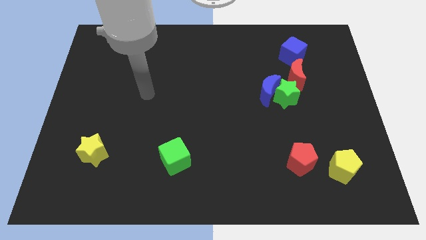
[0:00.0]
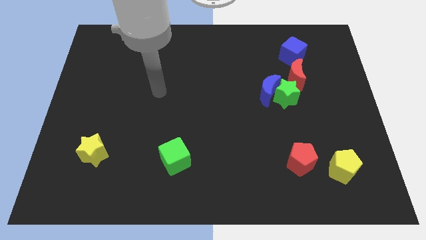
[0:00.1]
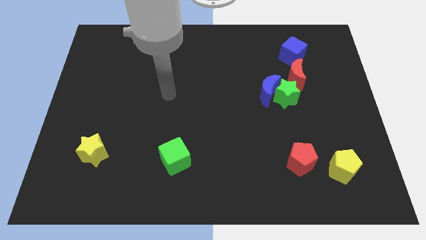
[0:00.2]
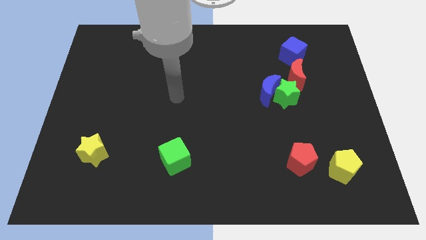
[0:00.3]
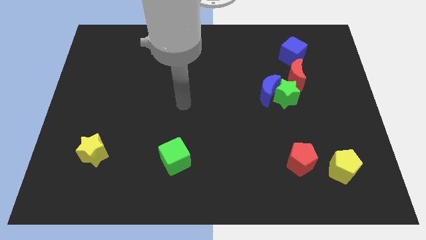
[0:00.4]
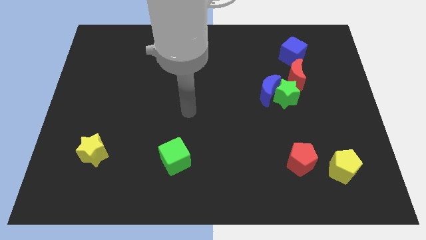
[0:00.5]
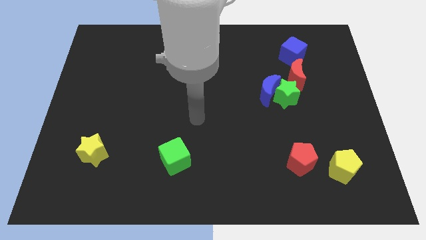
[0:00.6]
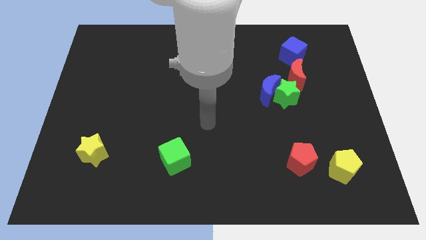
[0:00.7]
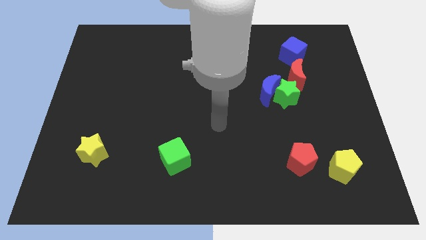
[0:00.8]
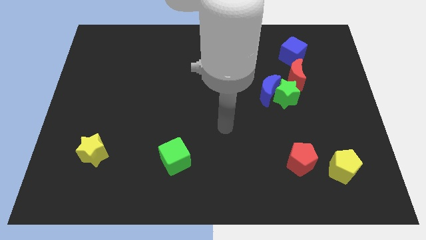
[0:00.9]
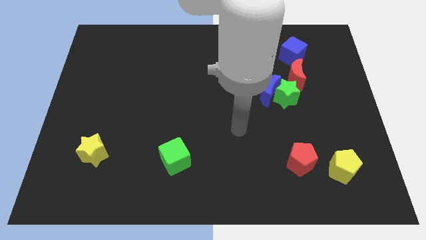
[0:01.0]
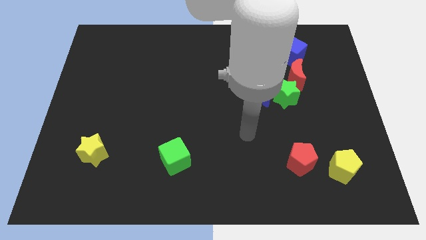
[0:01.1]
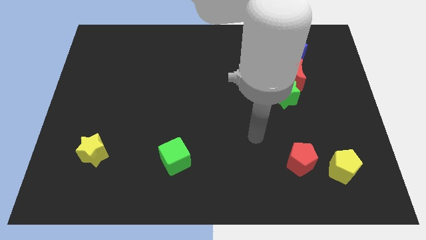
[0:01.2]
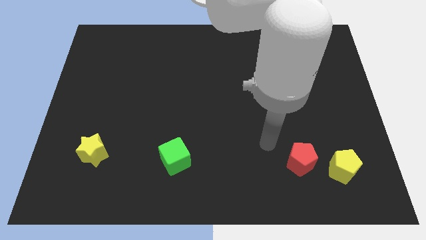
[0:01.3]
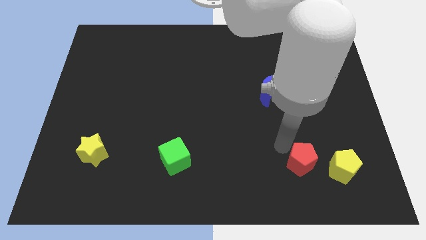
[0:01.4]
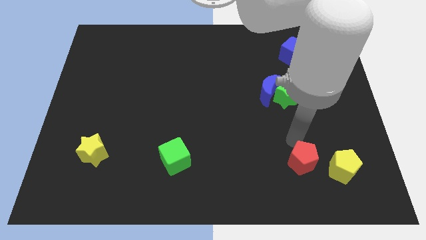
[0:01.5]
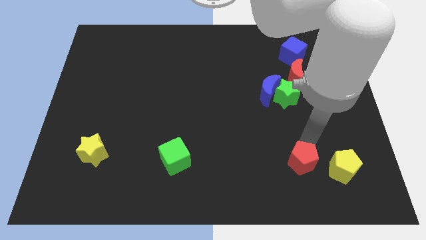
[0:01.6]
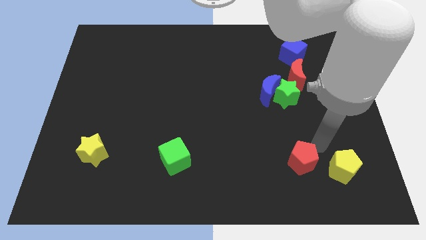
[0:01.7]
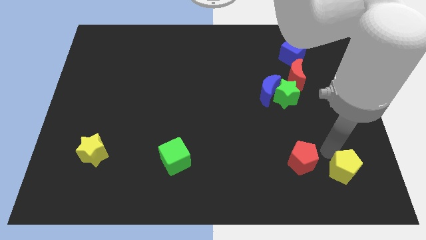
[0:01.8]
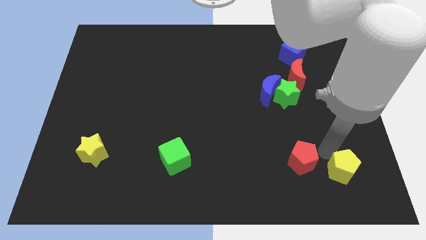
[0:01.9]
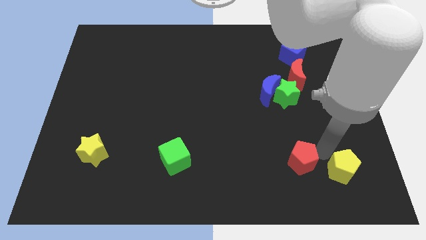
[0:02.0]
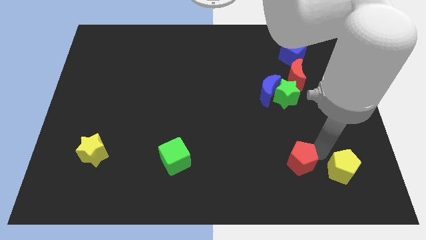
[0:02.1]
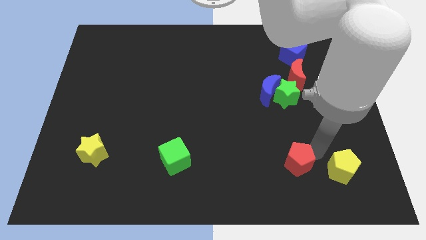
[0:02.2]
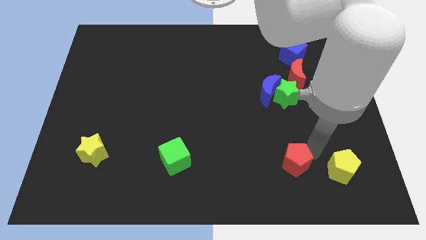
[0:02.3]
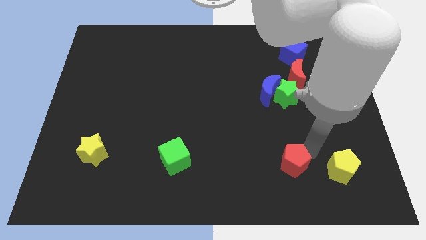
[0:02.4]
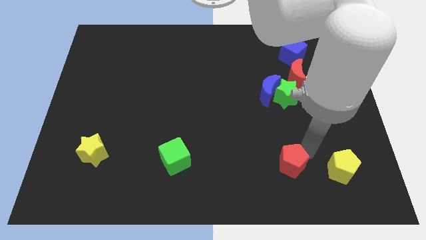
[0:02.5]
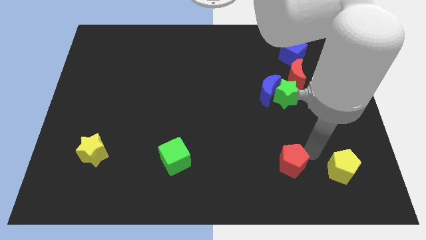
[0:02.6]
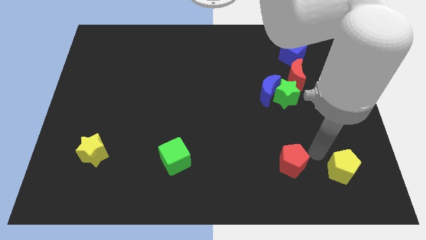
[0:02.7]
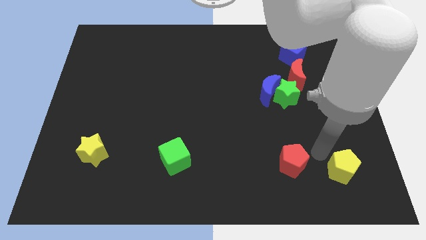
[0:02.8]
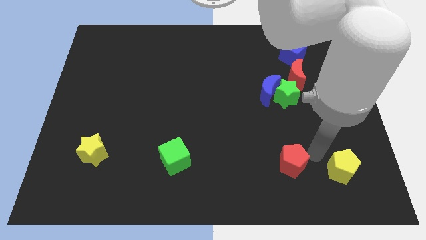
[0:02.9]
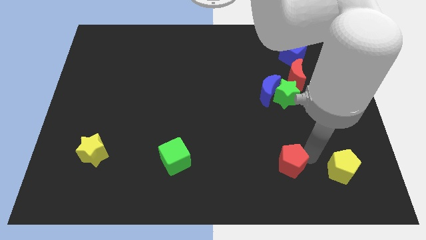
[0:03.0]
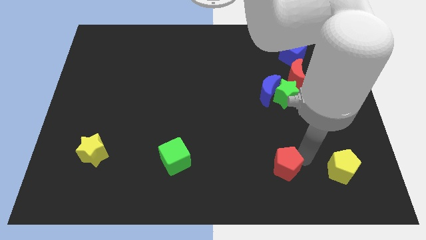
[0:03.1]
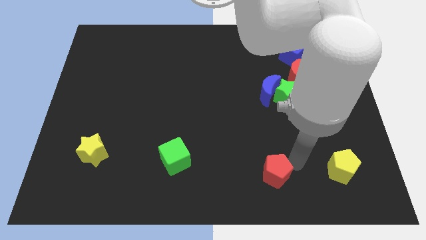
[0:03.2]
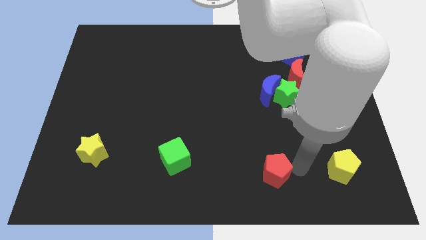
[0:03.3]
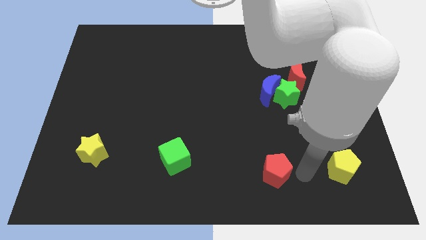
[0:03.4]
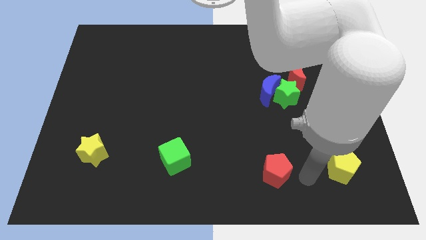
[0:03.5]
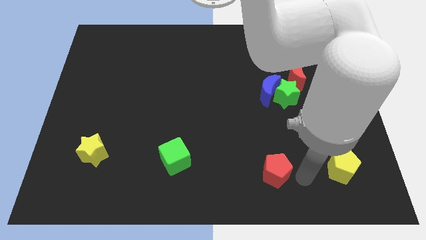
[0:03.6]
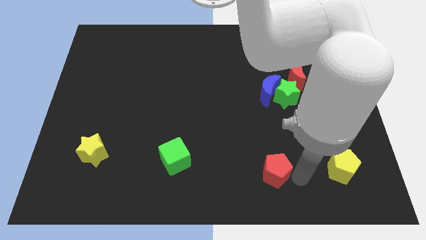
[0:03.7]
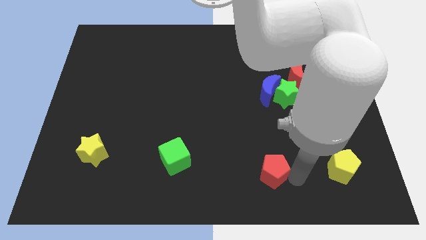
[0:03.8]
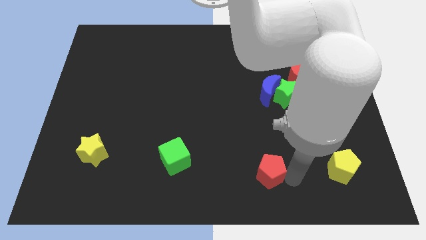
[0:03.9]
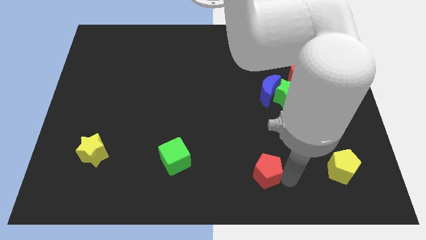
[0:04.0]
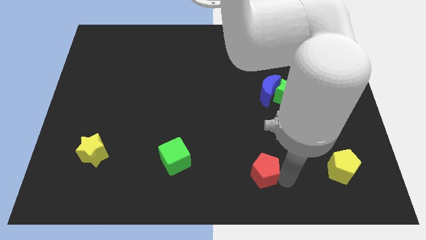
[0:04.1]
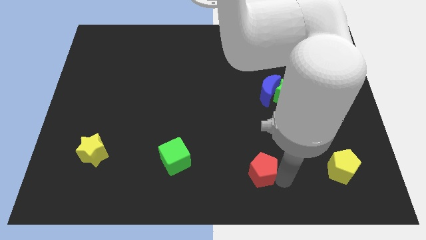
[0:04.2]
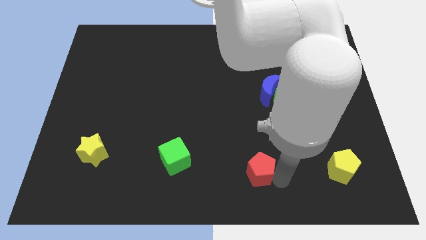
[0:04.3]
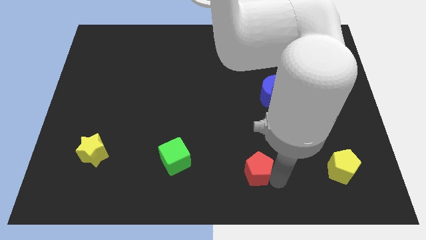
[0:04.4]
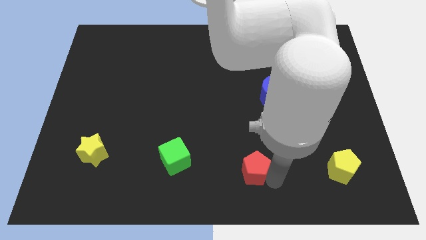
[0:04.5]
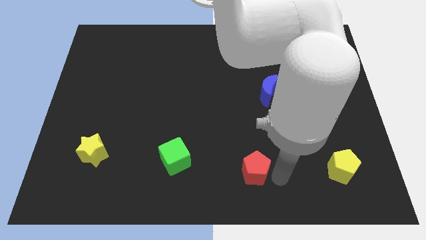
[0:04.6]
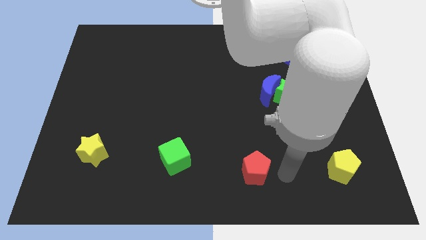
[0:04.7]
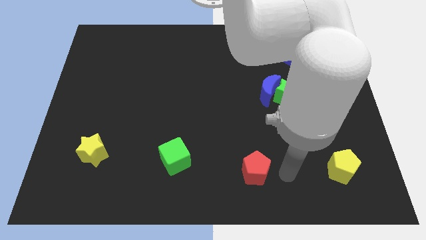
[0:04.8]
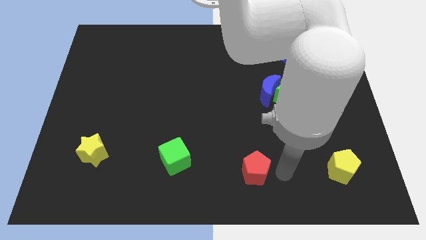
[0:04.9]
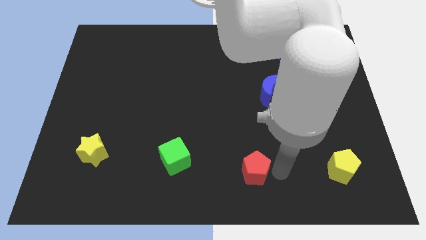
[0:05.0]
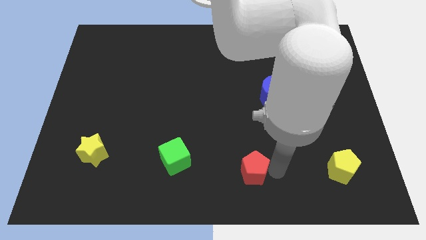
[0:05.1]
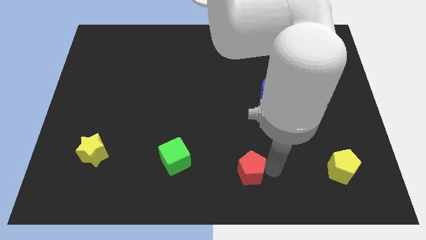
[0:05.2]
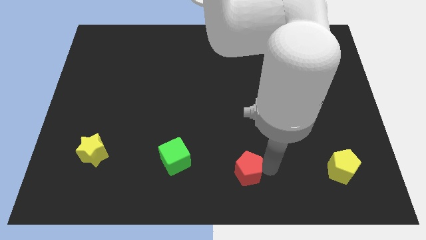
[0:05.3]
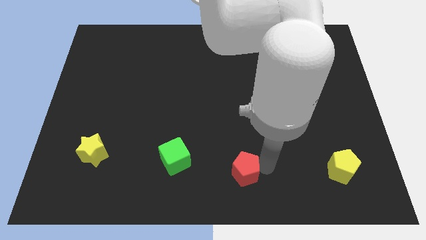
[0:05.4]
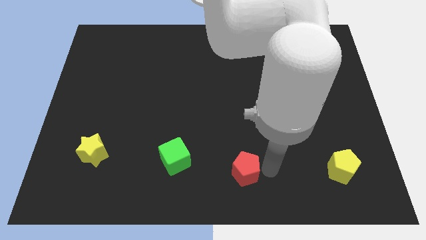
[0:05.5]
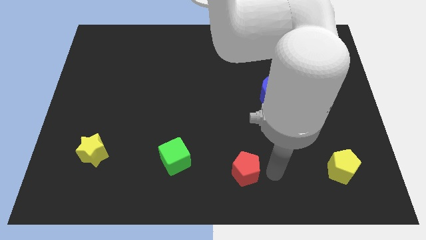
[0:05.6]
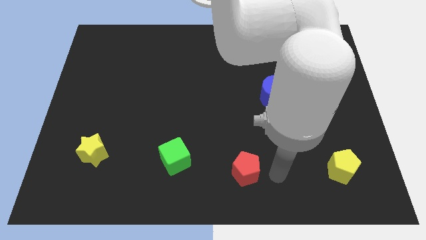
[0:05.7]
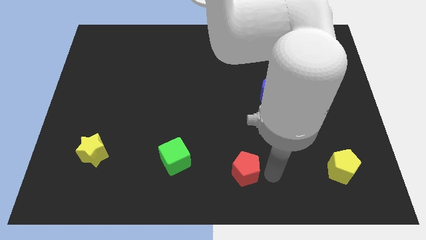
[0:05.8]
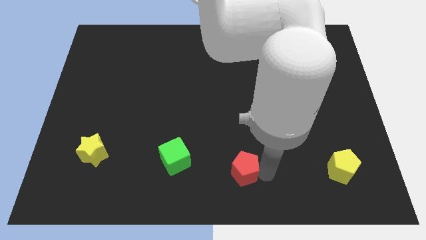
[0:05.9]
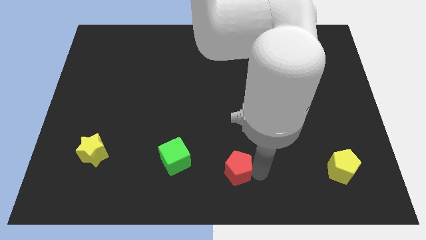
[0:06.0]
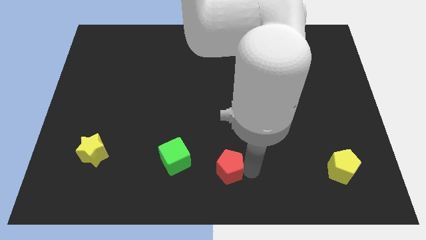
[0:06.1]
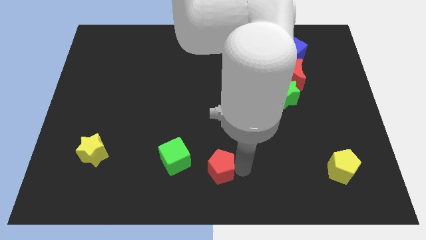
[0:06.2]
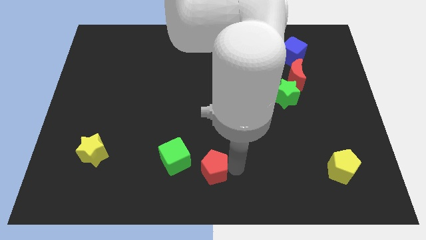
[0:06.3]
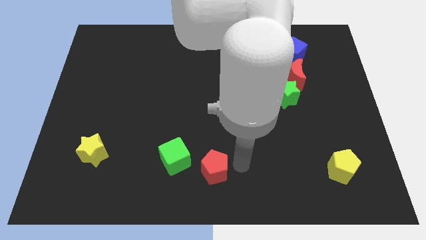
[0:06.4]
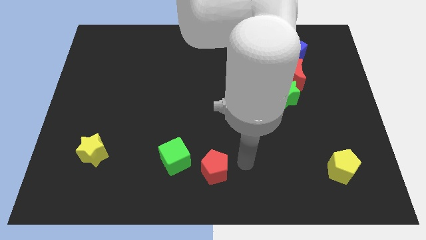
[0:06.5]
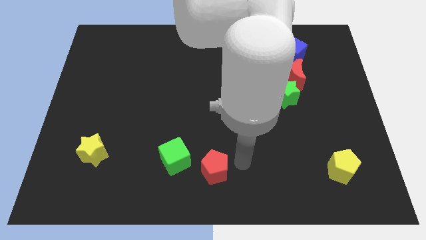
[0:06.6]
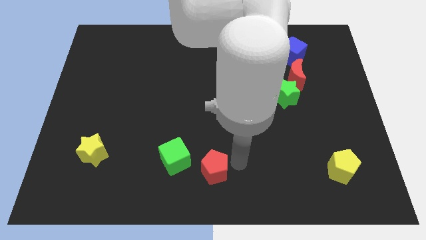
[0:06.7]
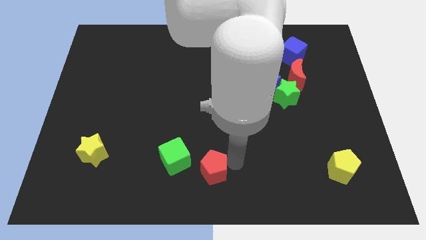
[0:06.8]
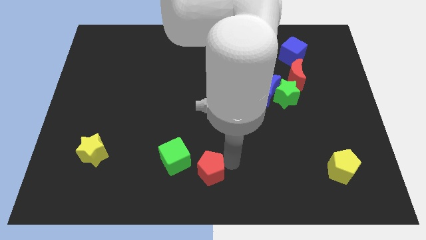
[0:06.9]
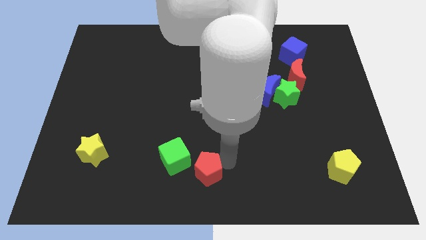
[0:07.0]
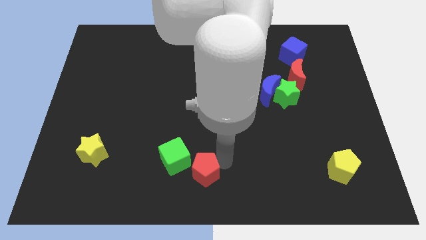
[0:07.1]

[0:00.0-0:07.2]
move the red pentagon left

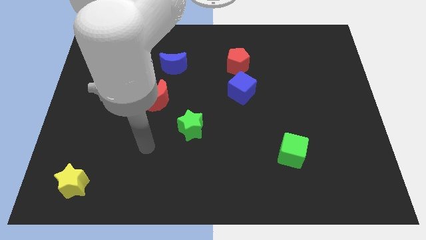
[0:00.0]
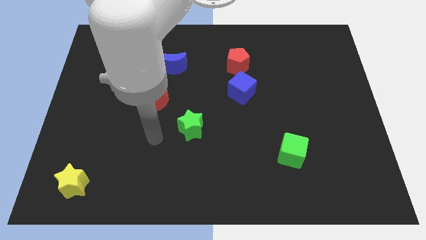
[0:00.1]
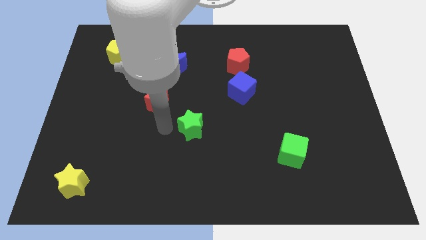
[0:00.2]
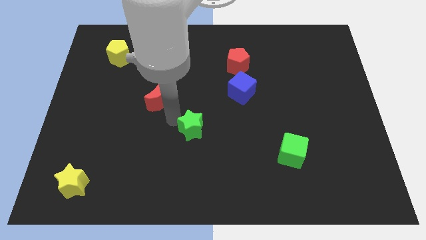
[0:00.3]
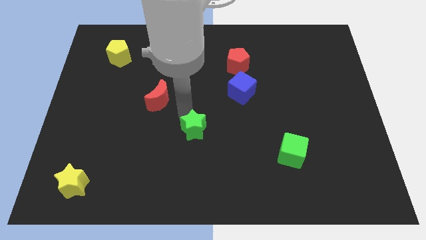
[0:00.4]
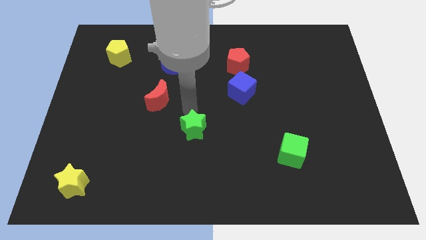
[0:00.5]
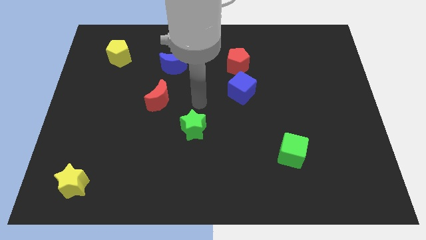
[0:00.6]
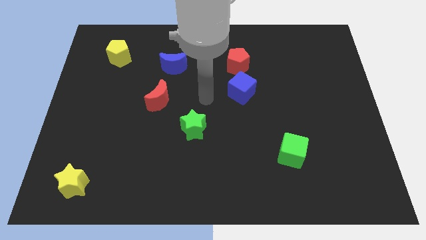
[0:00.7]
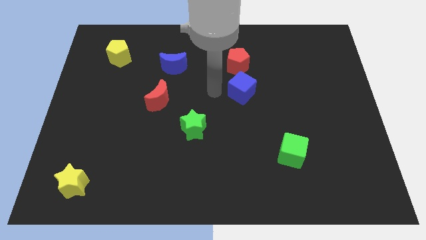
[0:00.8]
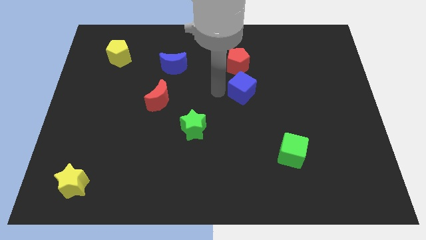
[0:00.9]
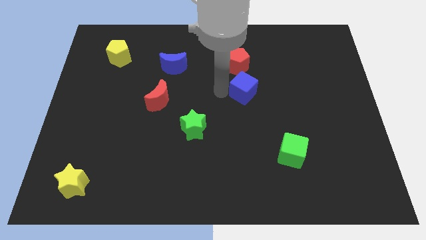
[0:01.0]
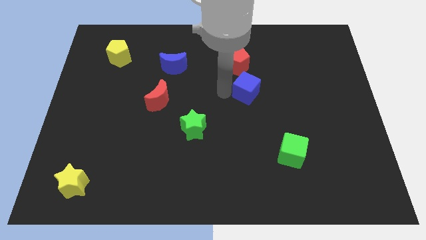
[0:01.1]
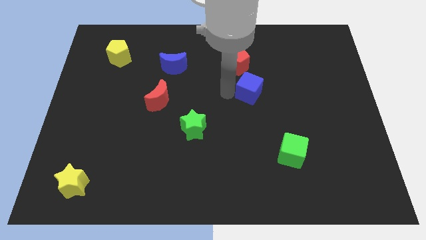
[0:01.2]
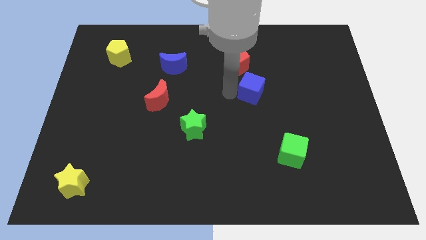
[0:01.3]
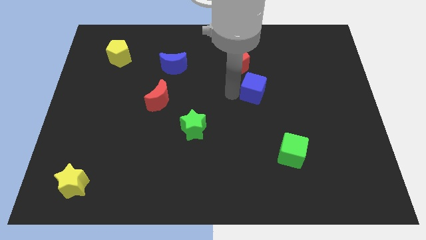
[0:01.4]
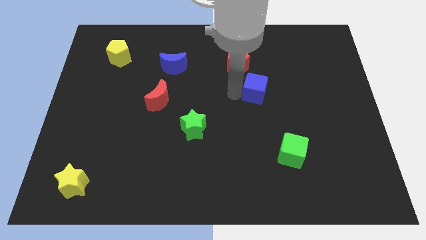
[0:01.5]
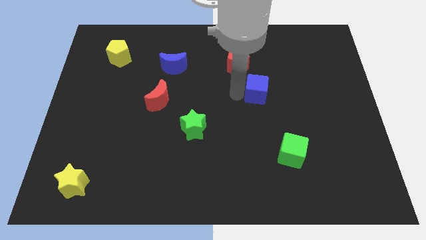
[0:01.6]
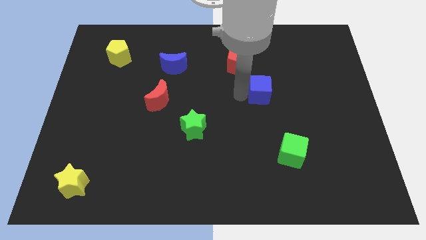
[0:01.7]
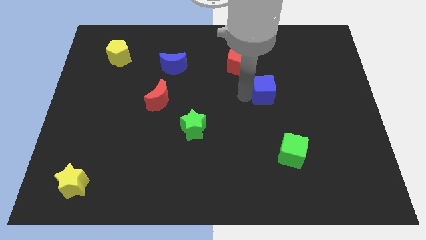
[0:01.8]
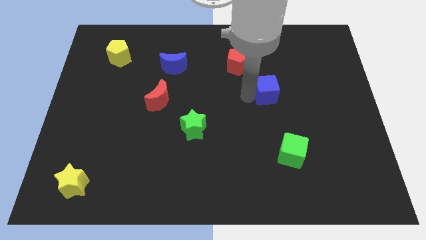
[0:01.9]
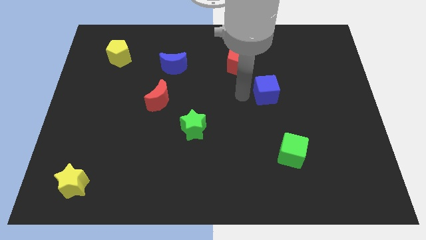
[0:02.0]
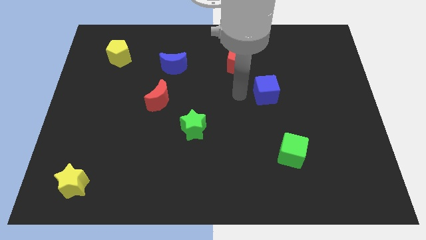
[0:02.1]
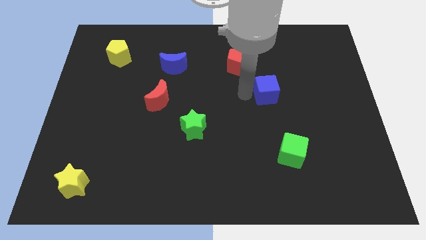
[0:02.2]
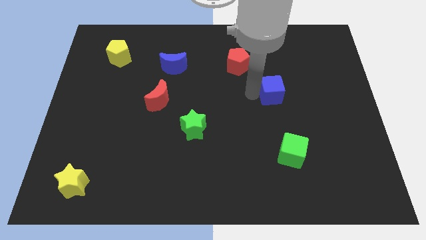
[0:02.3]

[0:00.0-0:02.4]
slightly slide the blue cube to the right
